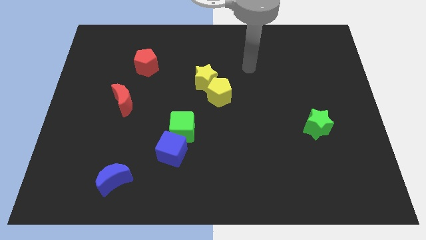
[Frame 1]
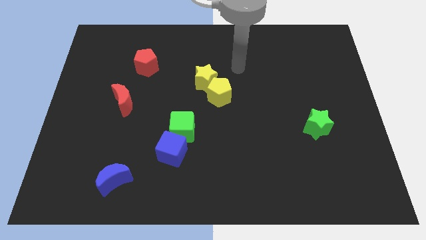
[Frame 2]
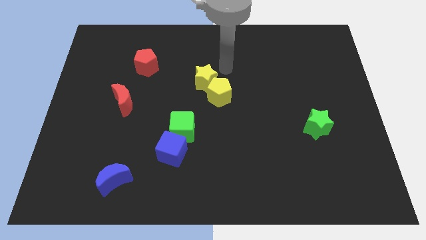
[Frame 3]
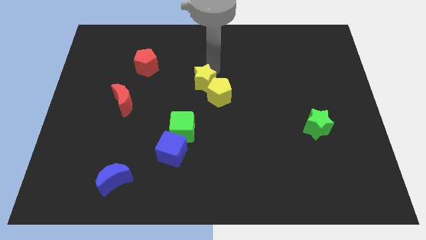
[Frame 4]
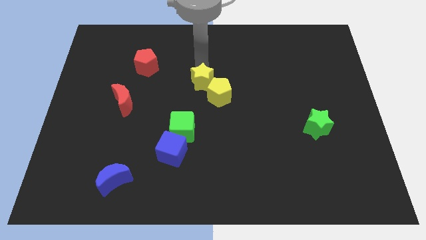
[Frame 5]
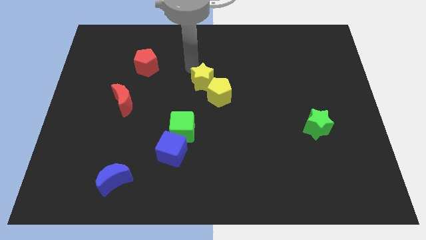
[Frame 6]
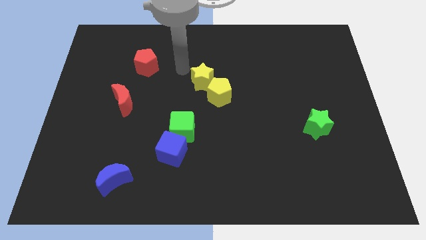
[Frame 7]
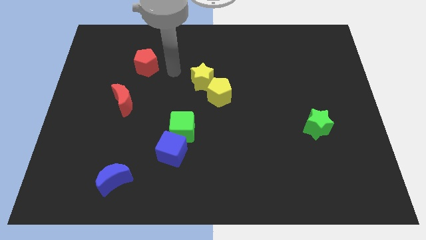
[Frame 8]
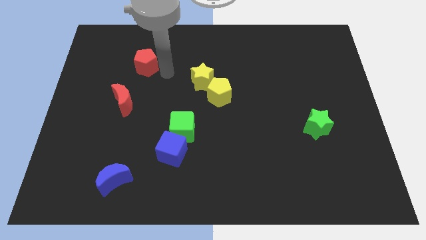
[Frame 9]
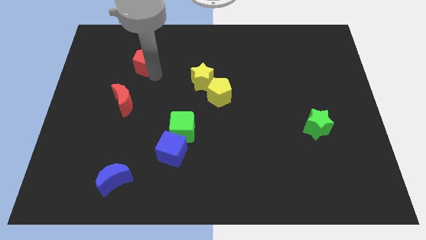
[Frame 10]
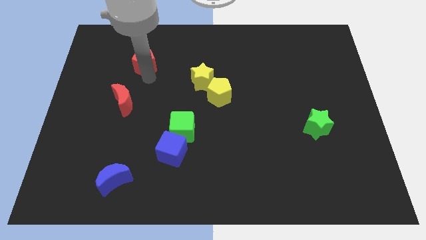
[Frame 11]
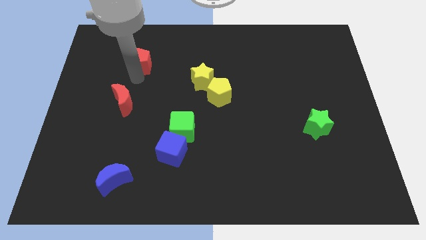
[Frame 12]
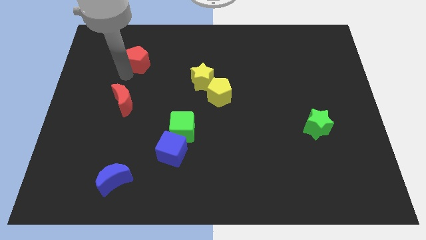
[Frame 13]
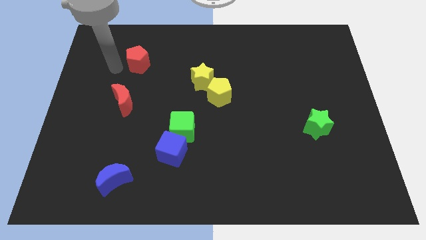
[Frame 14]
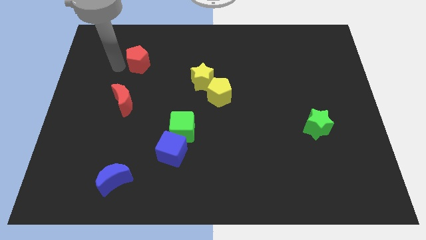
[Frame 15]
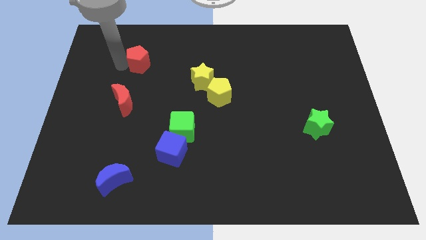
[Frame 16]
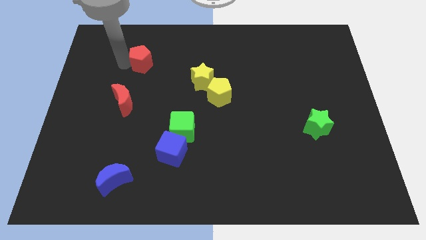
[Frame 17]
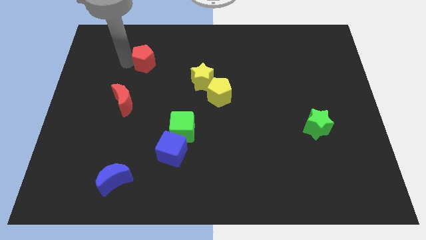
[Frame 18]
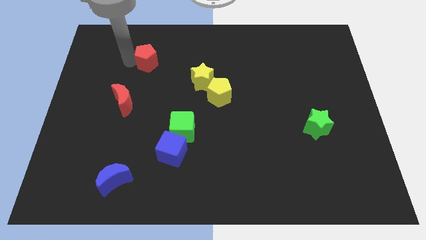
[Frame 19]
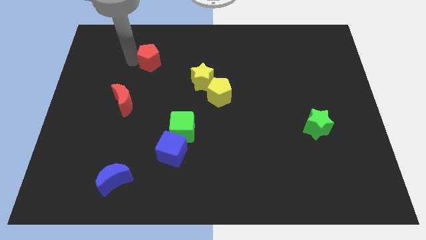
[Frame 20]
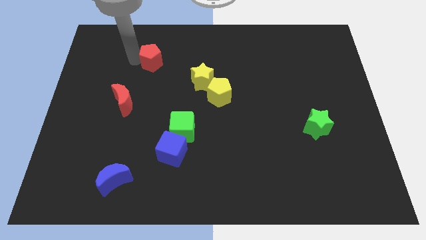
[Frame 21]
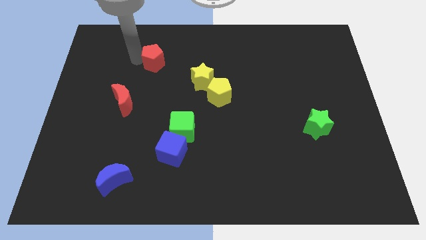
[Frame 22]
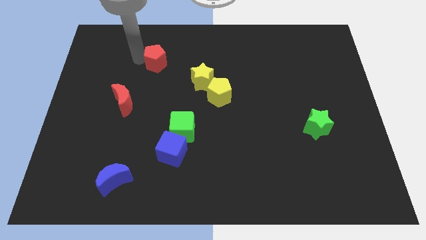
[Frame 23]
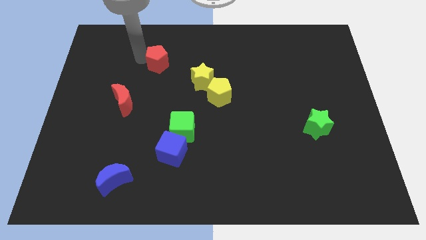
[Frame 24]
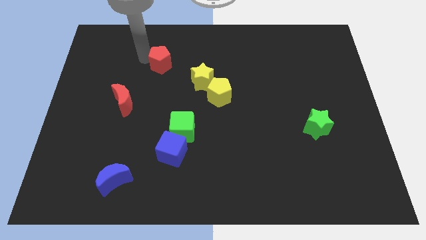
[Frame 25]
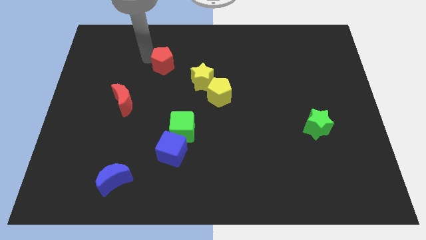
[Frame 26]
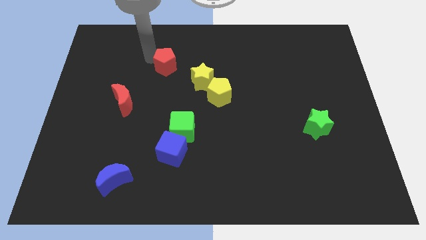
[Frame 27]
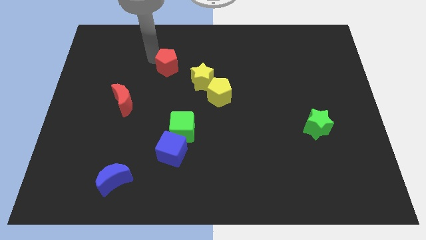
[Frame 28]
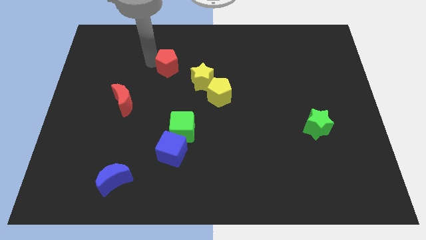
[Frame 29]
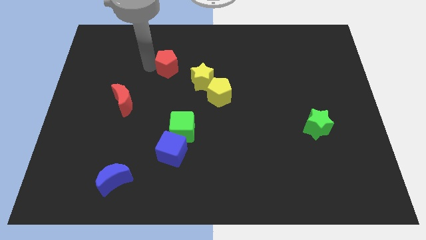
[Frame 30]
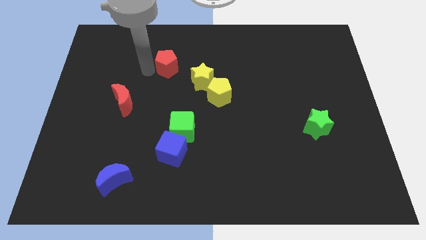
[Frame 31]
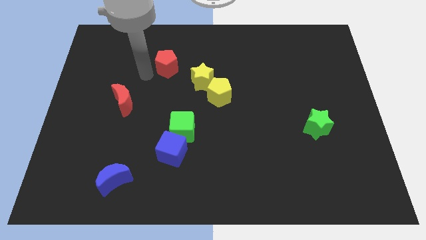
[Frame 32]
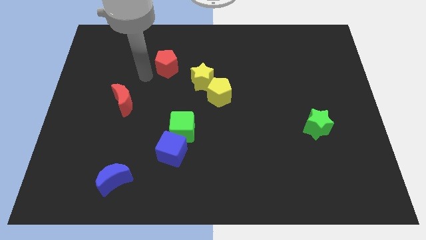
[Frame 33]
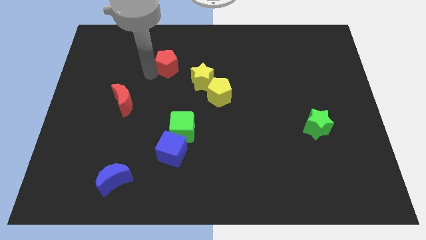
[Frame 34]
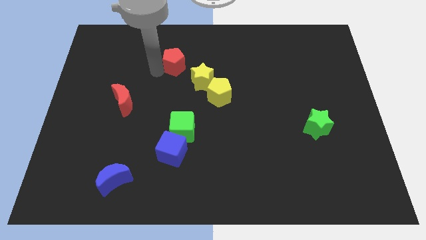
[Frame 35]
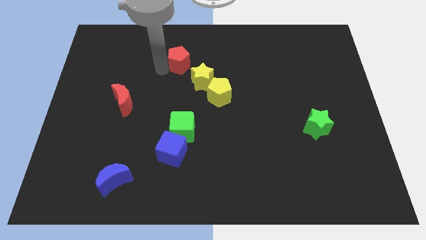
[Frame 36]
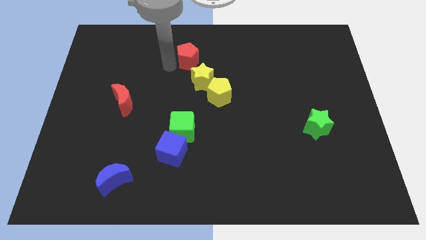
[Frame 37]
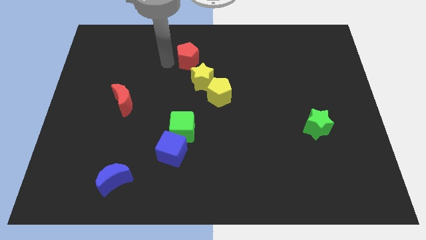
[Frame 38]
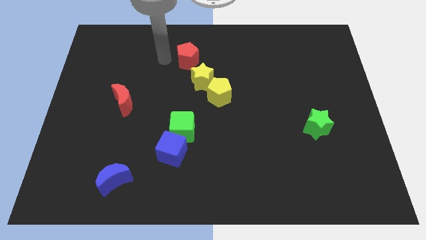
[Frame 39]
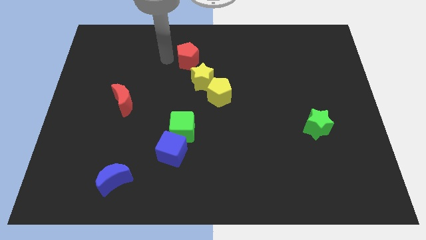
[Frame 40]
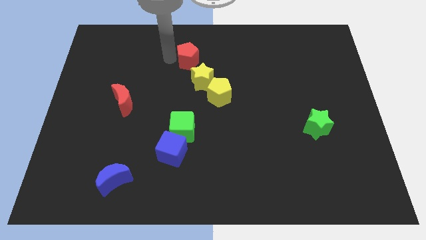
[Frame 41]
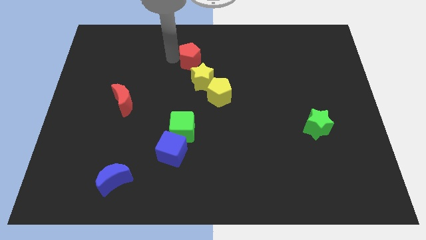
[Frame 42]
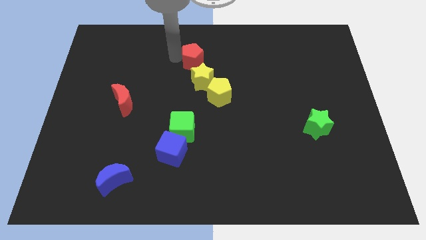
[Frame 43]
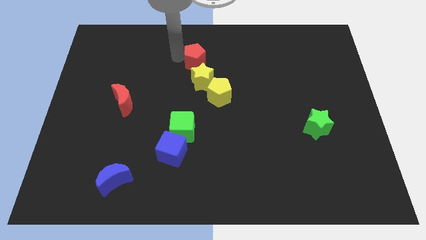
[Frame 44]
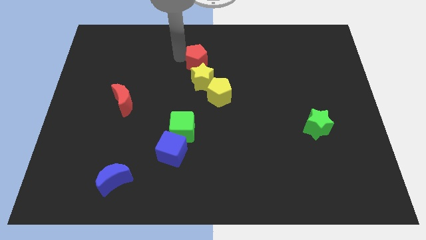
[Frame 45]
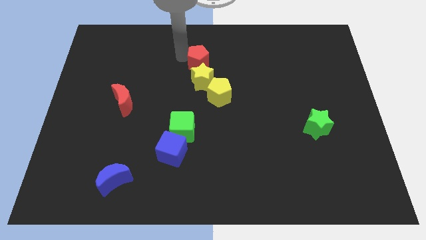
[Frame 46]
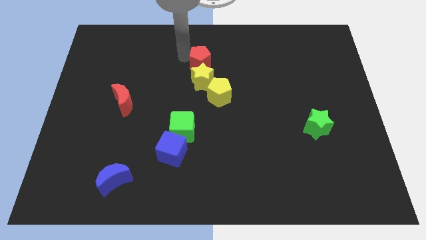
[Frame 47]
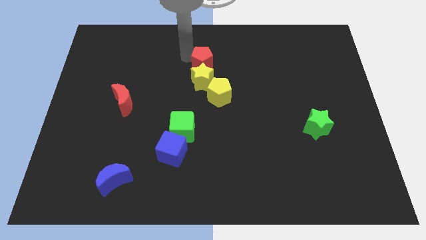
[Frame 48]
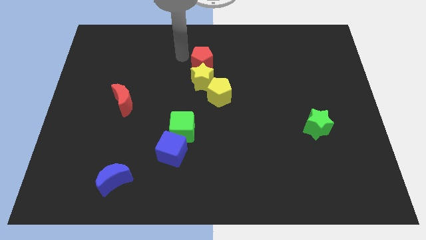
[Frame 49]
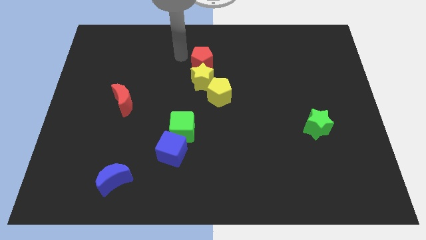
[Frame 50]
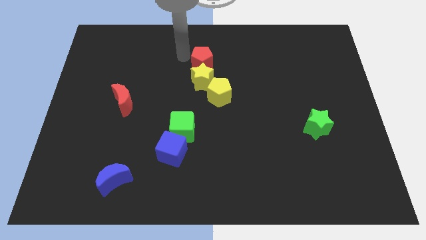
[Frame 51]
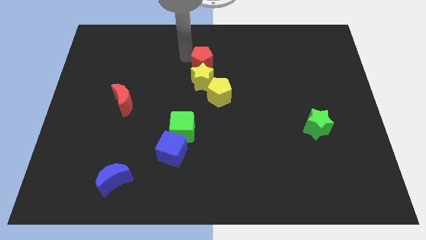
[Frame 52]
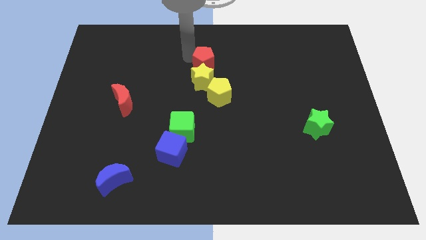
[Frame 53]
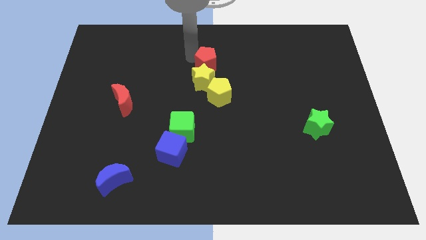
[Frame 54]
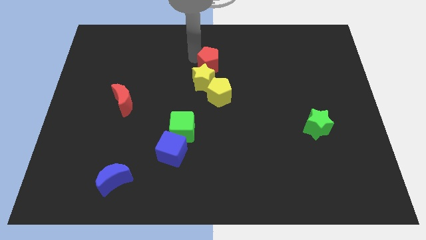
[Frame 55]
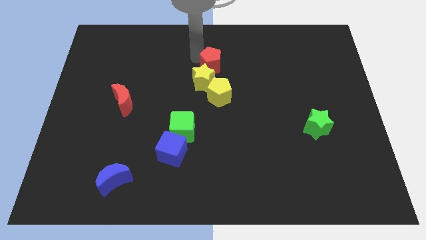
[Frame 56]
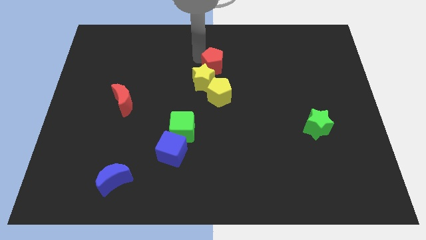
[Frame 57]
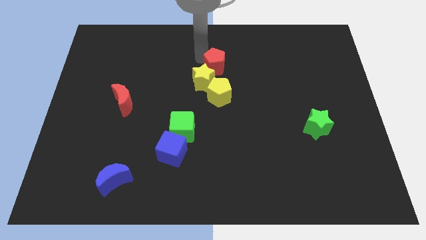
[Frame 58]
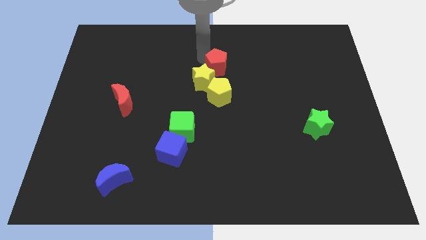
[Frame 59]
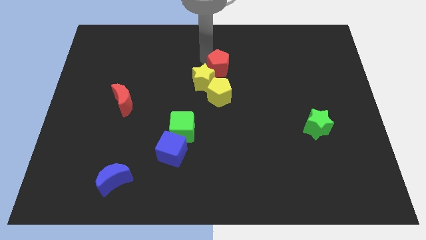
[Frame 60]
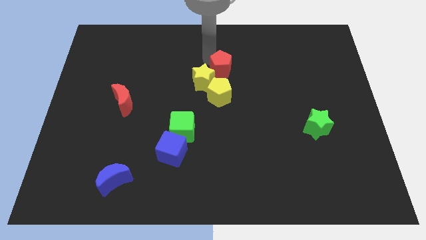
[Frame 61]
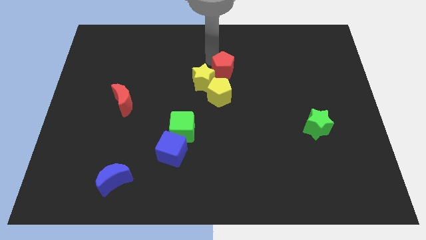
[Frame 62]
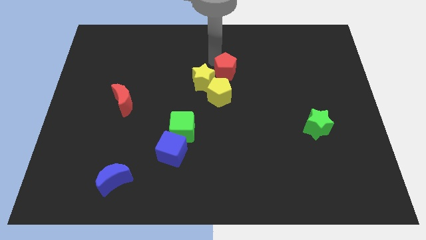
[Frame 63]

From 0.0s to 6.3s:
push the red pentagon to the top right of the yellow pentagon
